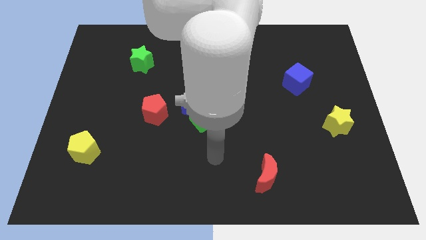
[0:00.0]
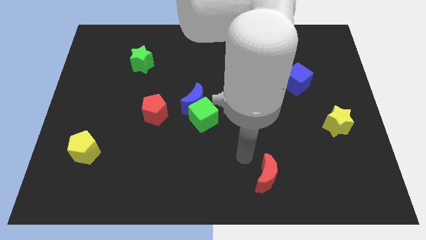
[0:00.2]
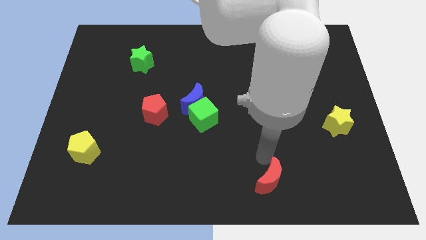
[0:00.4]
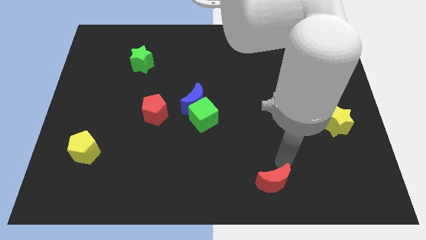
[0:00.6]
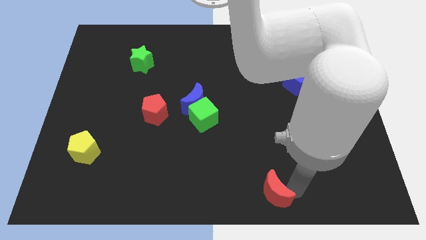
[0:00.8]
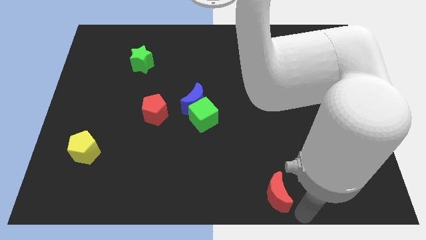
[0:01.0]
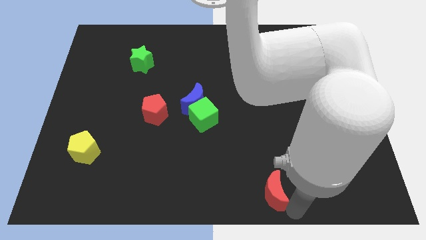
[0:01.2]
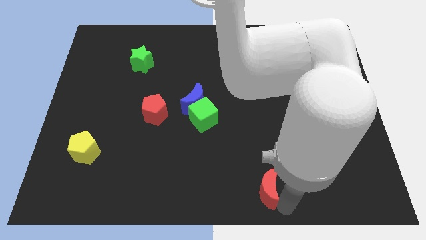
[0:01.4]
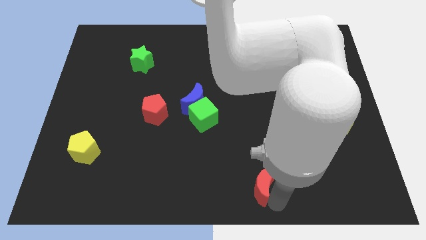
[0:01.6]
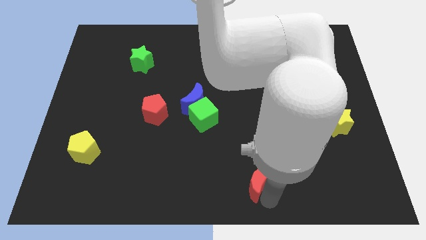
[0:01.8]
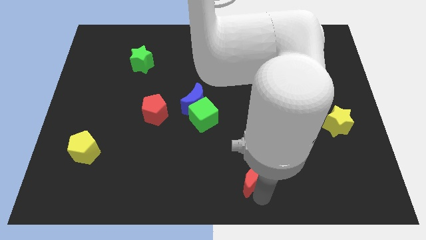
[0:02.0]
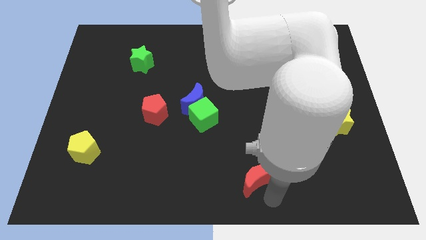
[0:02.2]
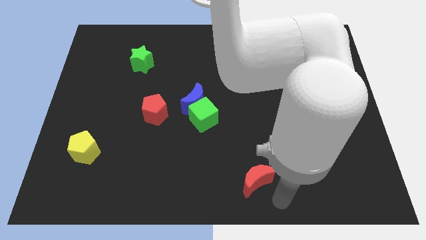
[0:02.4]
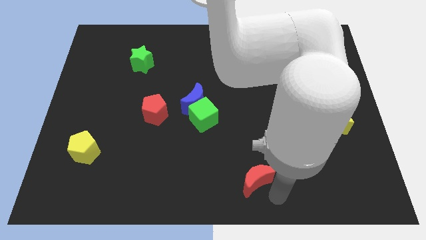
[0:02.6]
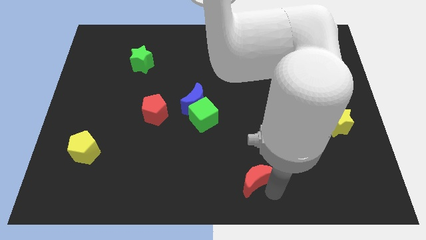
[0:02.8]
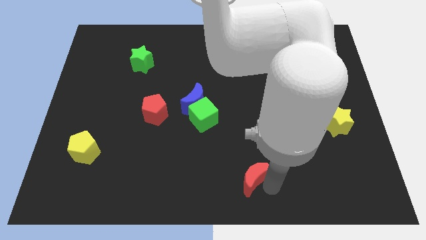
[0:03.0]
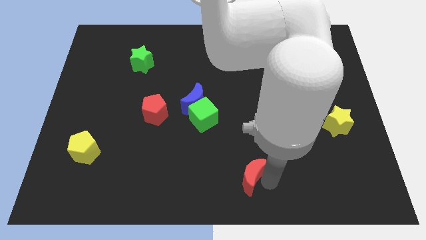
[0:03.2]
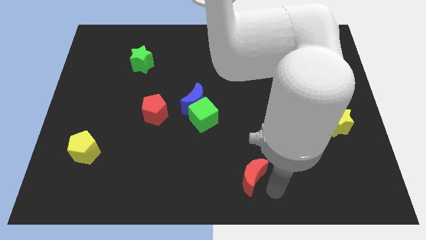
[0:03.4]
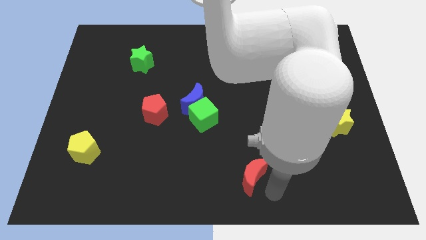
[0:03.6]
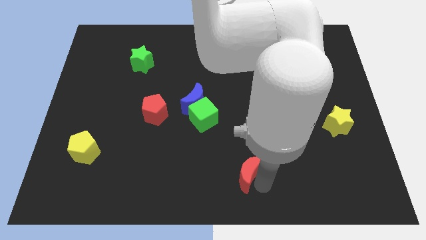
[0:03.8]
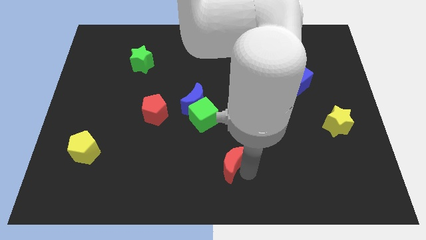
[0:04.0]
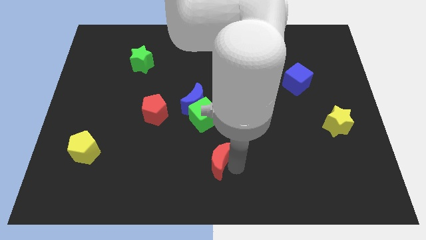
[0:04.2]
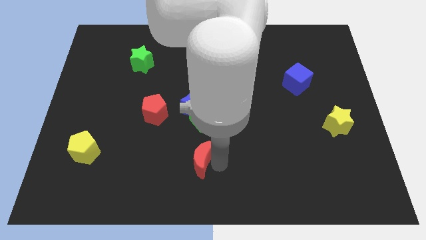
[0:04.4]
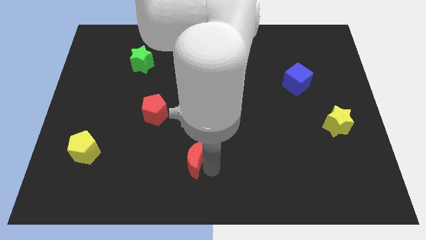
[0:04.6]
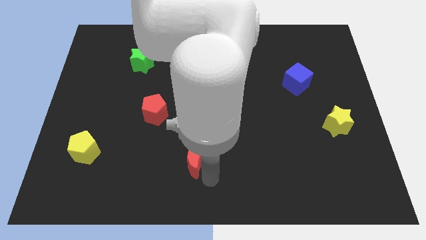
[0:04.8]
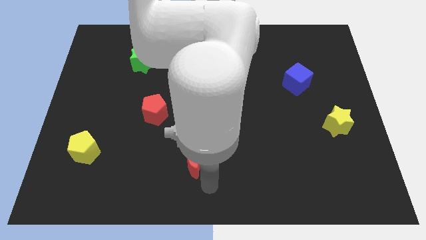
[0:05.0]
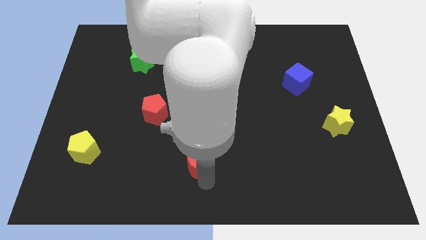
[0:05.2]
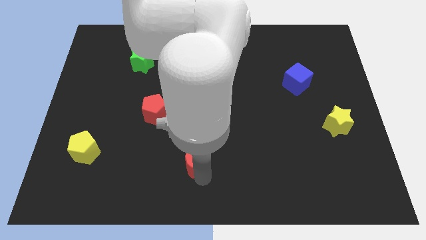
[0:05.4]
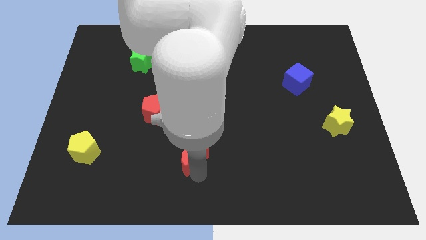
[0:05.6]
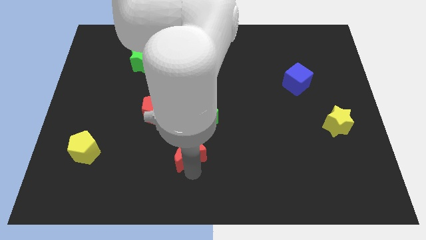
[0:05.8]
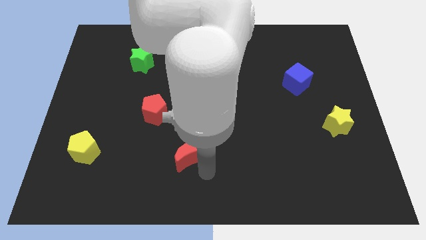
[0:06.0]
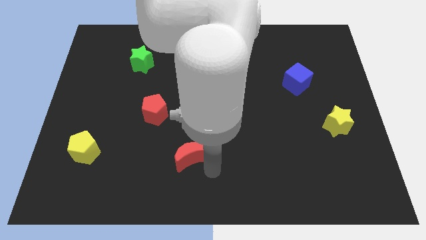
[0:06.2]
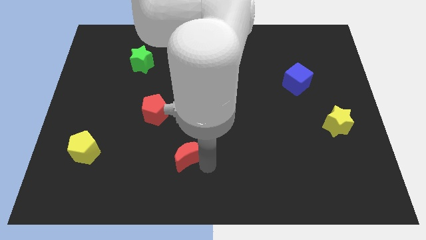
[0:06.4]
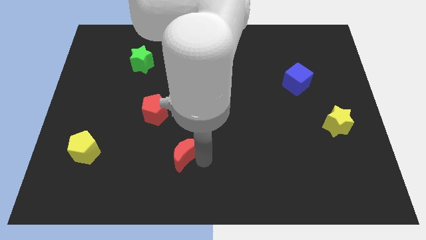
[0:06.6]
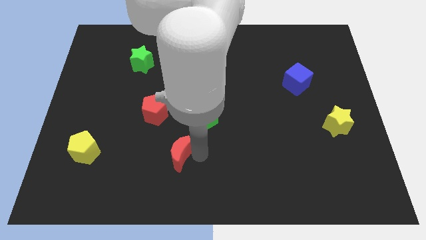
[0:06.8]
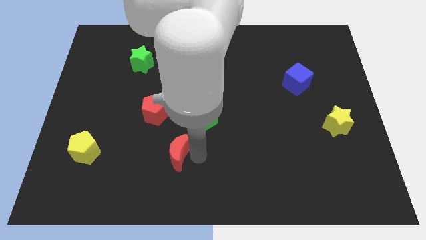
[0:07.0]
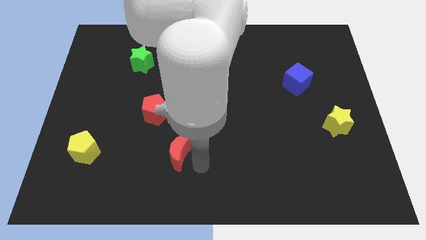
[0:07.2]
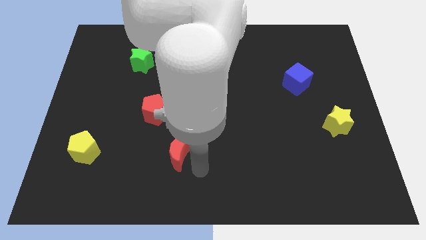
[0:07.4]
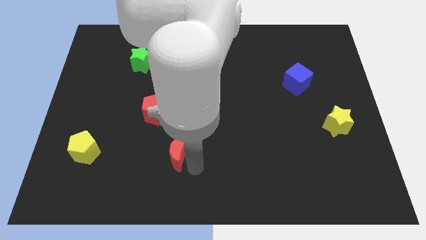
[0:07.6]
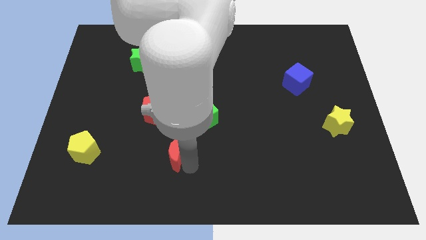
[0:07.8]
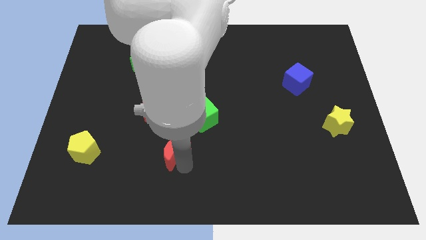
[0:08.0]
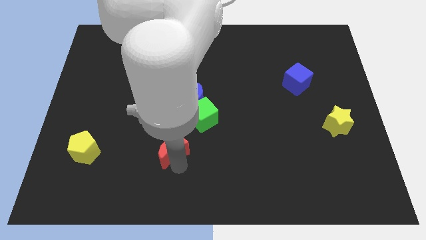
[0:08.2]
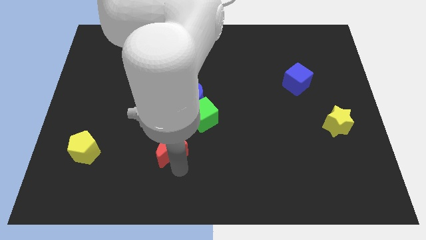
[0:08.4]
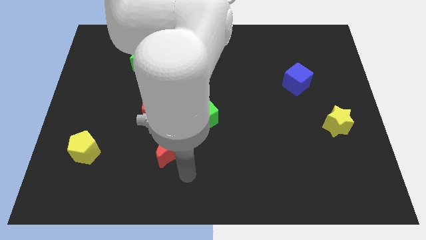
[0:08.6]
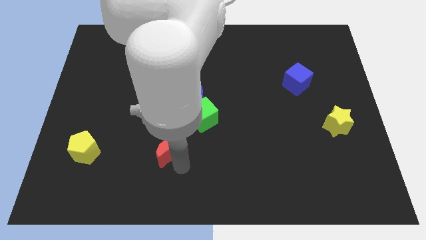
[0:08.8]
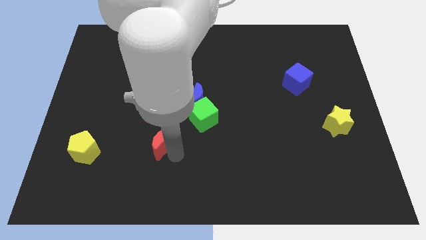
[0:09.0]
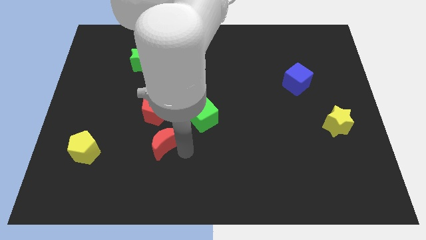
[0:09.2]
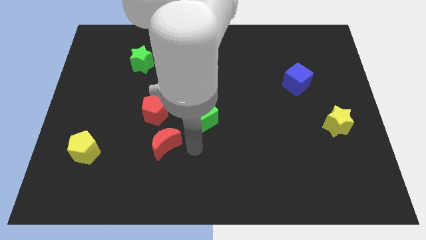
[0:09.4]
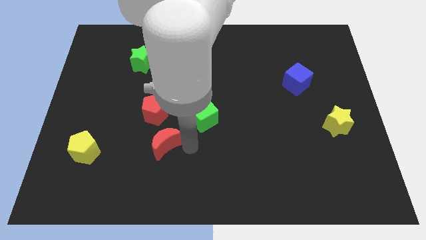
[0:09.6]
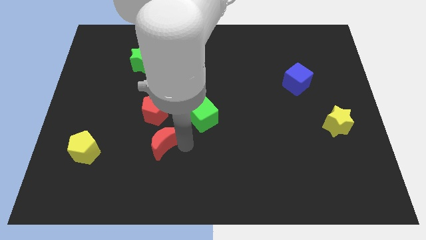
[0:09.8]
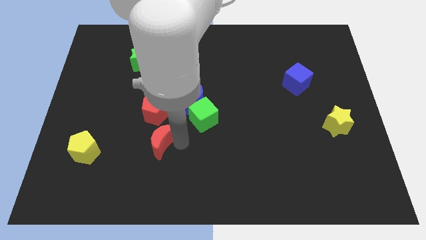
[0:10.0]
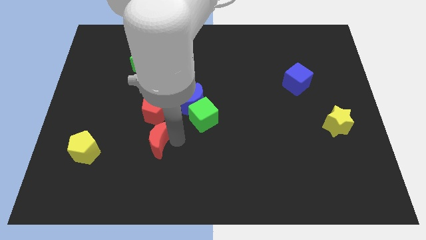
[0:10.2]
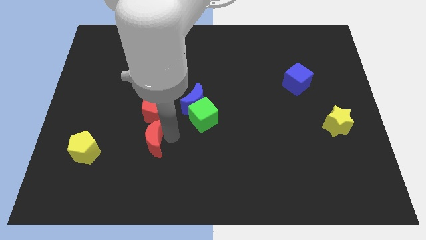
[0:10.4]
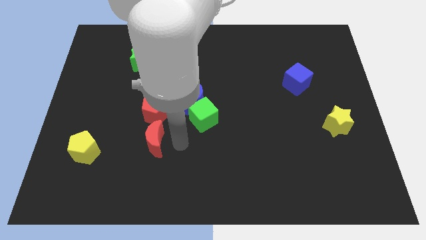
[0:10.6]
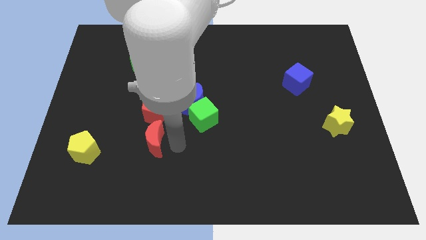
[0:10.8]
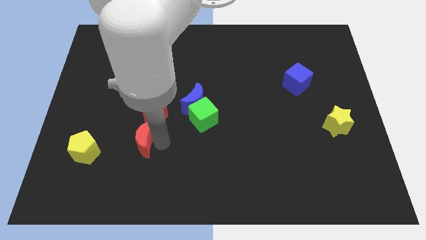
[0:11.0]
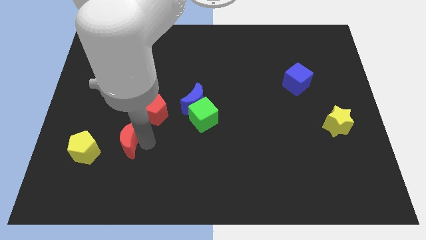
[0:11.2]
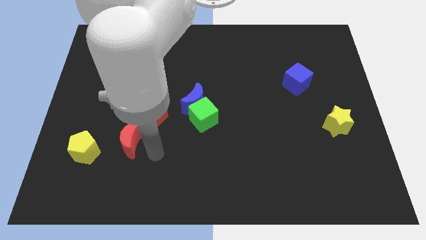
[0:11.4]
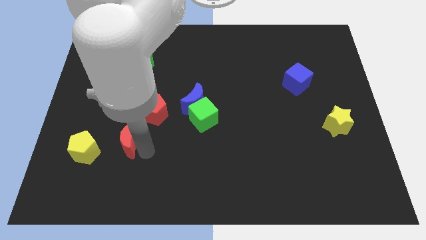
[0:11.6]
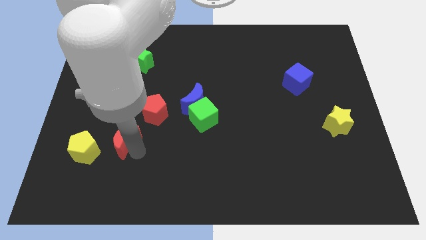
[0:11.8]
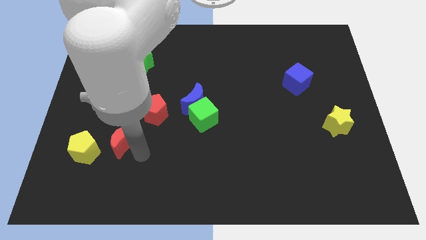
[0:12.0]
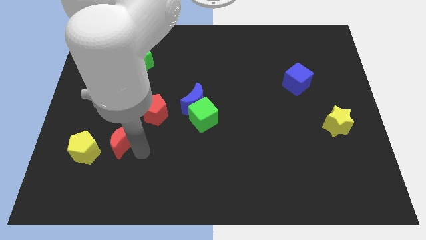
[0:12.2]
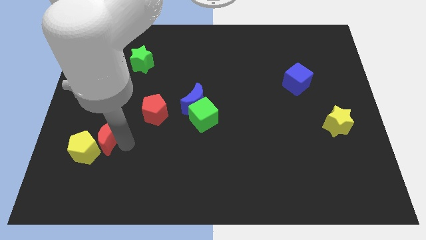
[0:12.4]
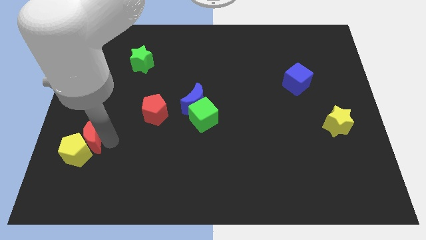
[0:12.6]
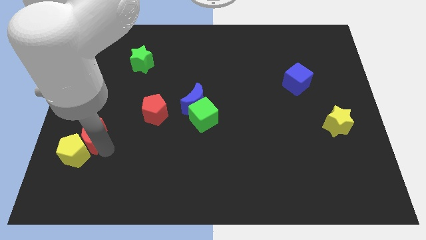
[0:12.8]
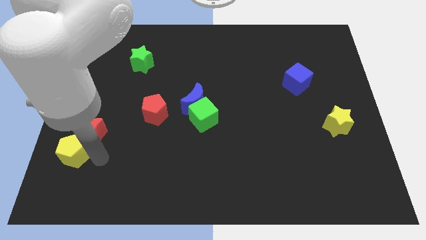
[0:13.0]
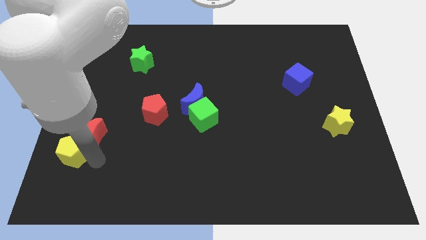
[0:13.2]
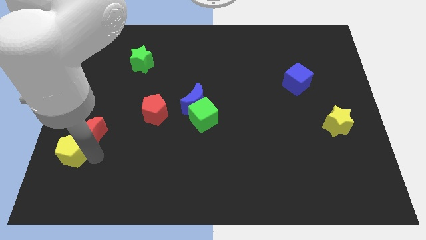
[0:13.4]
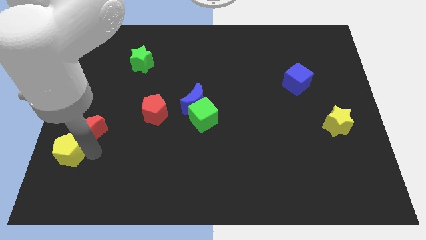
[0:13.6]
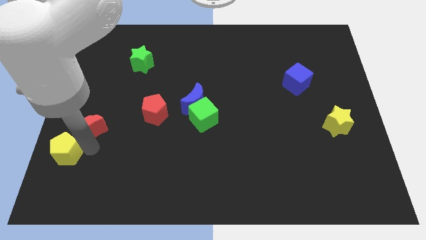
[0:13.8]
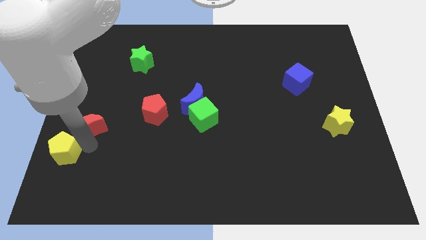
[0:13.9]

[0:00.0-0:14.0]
push the red moon to the left side

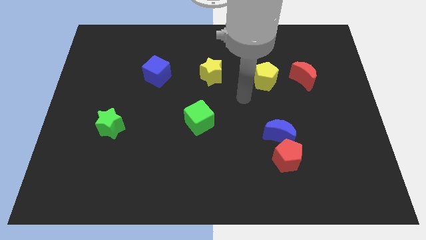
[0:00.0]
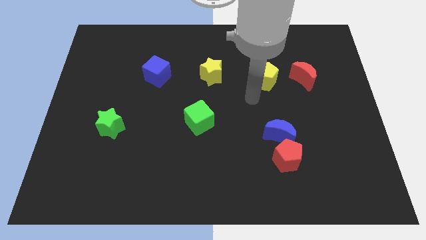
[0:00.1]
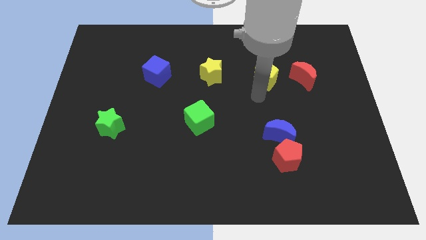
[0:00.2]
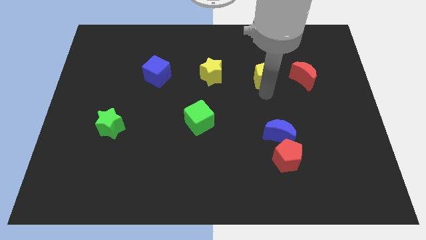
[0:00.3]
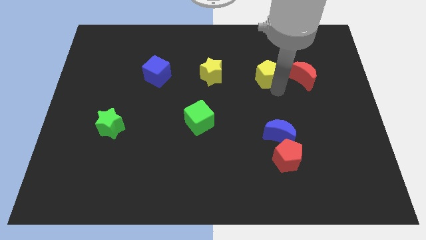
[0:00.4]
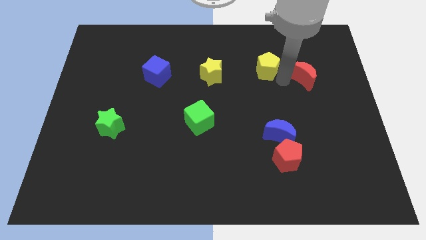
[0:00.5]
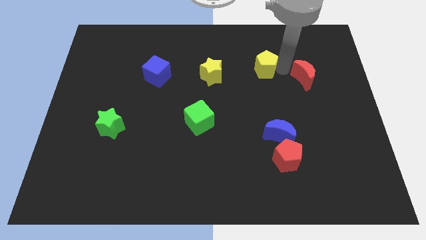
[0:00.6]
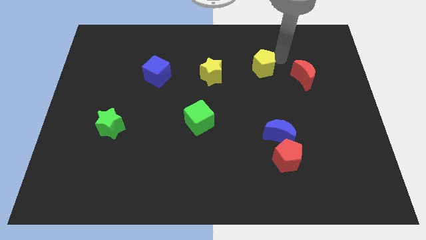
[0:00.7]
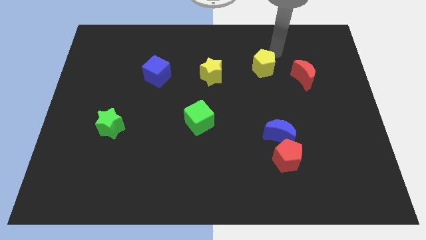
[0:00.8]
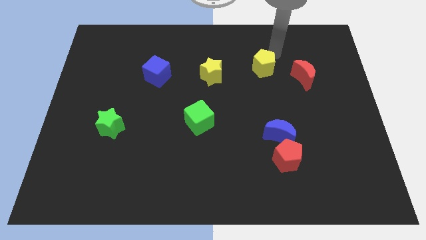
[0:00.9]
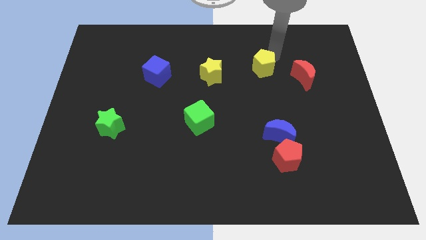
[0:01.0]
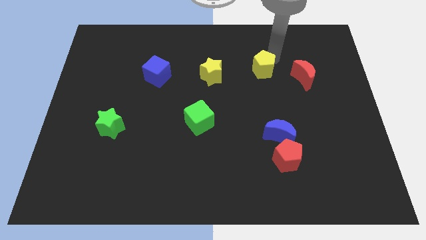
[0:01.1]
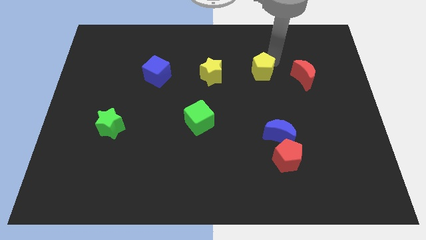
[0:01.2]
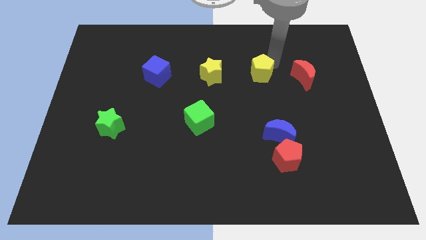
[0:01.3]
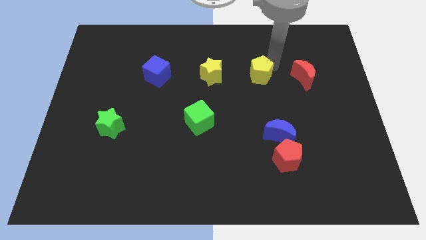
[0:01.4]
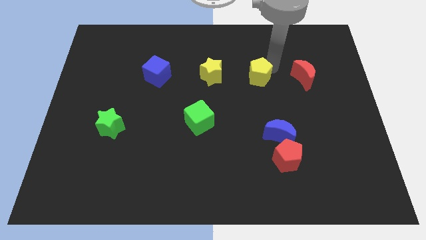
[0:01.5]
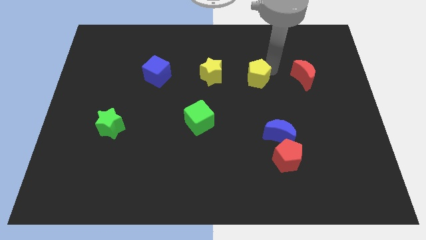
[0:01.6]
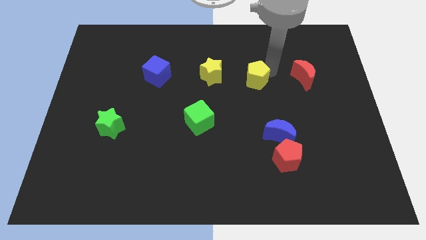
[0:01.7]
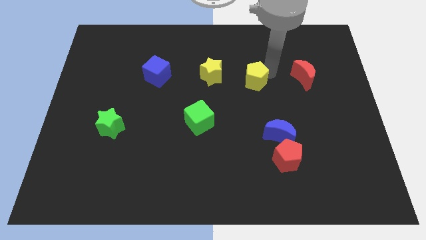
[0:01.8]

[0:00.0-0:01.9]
slide the yellow pentagon to the middle
